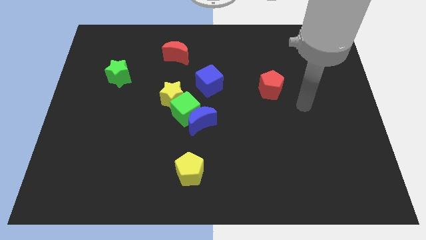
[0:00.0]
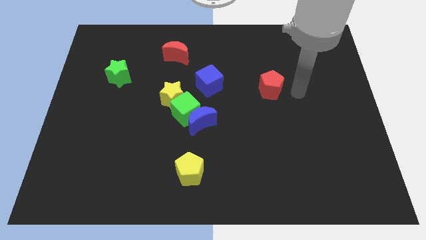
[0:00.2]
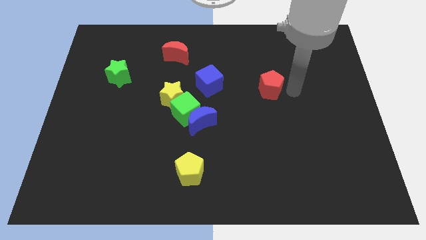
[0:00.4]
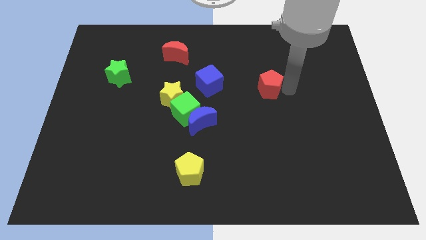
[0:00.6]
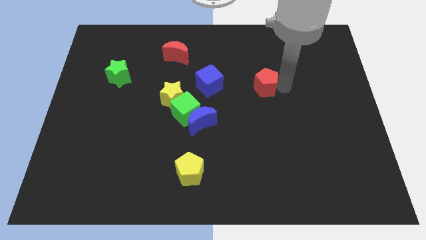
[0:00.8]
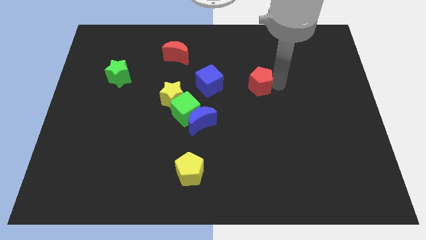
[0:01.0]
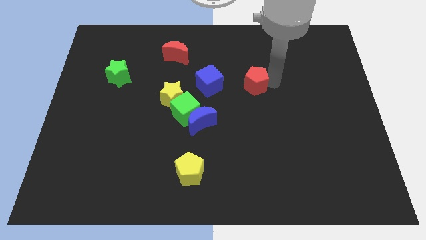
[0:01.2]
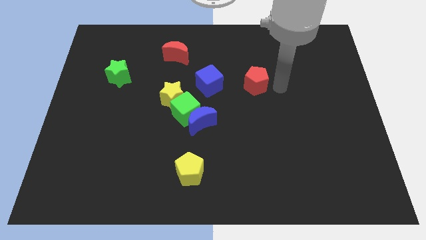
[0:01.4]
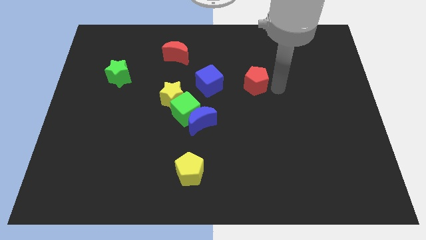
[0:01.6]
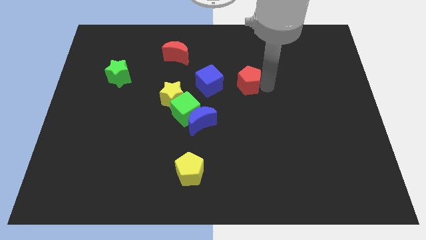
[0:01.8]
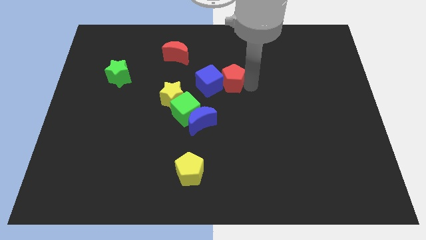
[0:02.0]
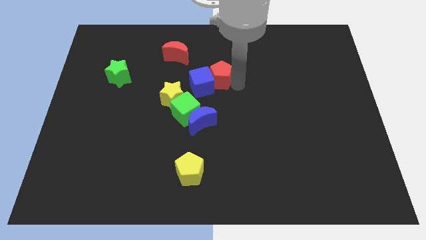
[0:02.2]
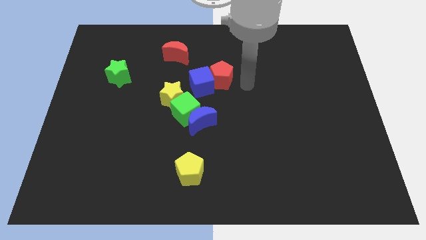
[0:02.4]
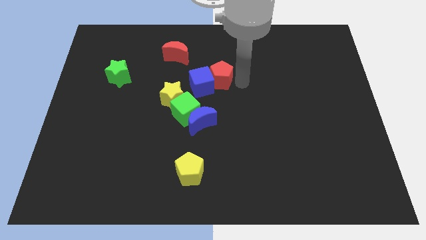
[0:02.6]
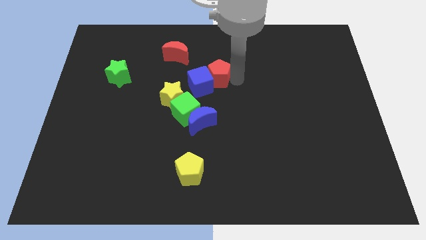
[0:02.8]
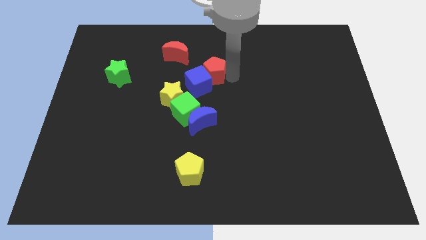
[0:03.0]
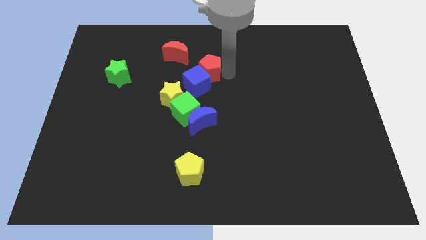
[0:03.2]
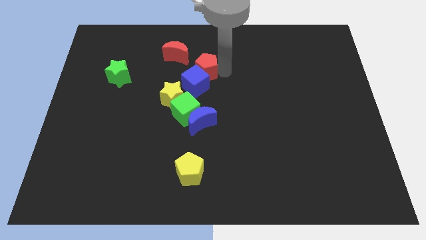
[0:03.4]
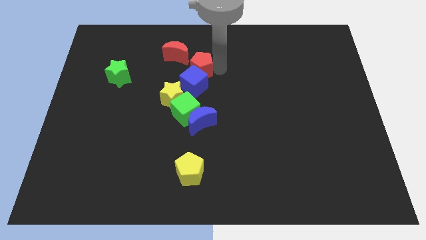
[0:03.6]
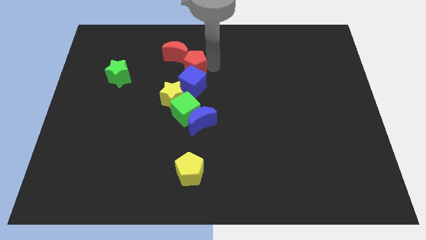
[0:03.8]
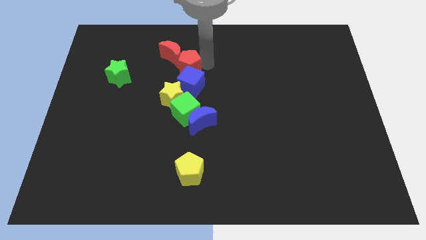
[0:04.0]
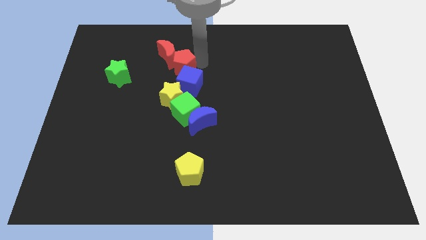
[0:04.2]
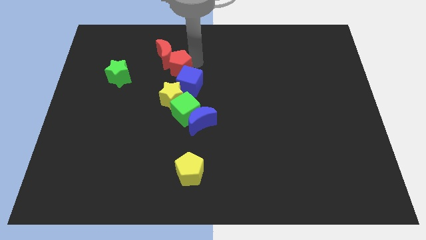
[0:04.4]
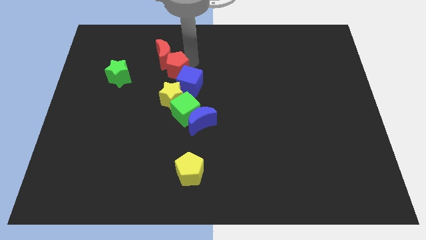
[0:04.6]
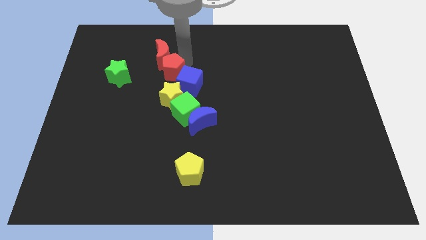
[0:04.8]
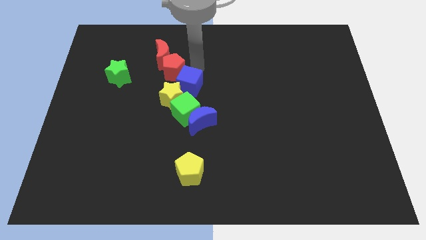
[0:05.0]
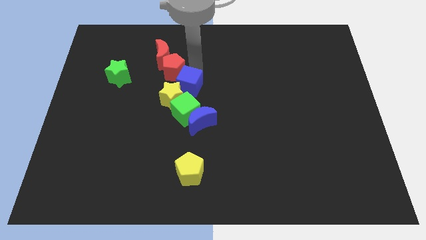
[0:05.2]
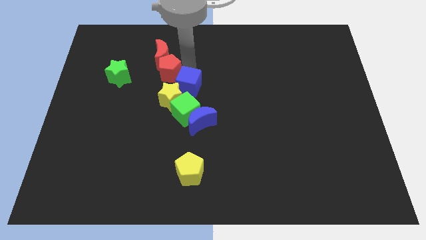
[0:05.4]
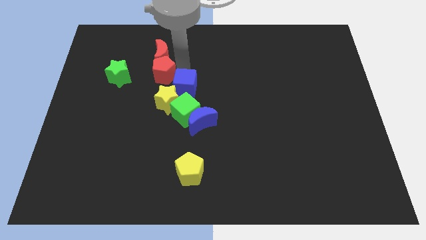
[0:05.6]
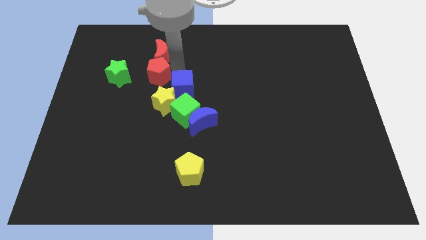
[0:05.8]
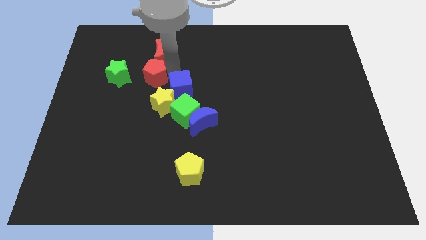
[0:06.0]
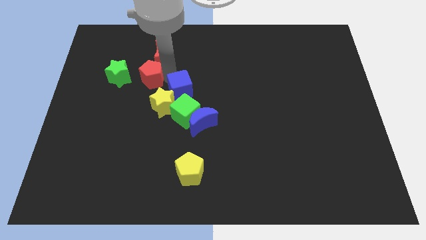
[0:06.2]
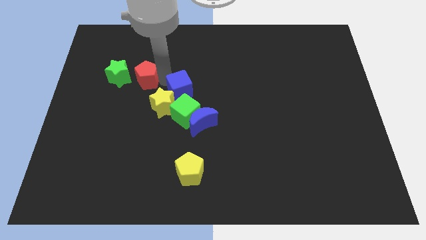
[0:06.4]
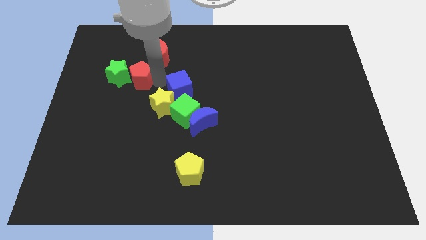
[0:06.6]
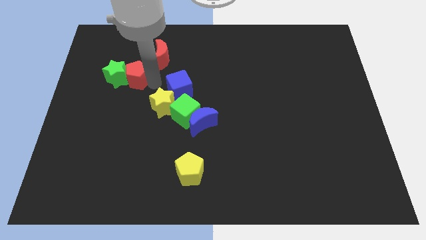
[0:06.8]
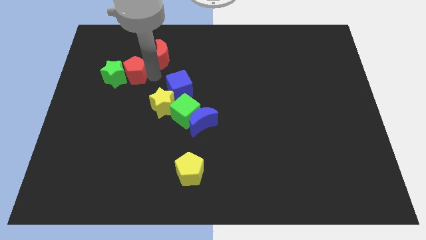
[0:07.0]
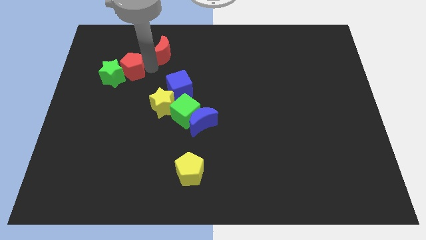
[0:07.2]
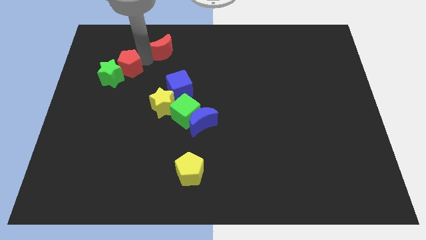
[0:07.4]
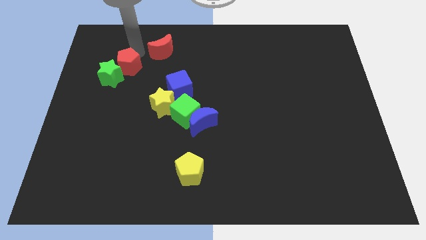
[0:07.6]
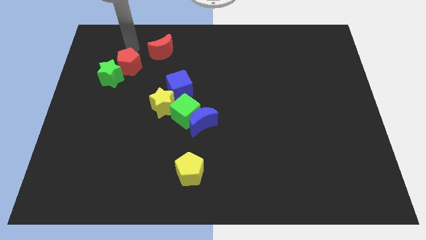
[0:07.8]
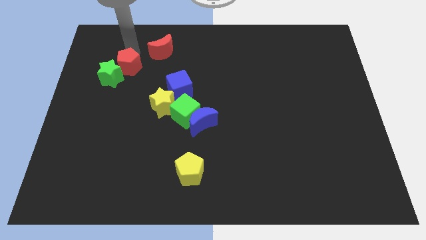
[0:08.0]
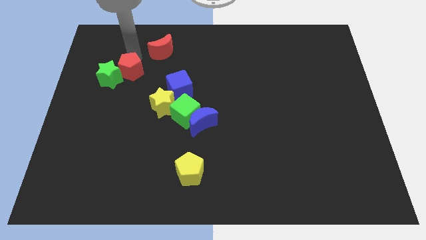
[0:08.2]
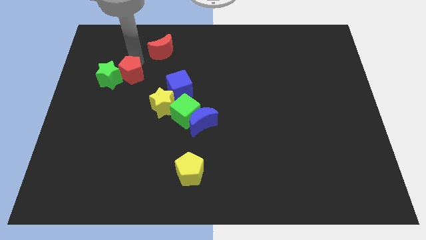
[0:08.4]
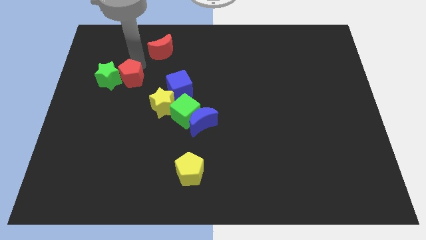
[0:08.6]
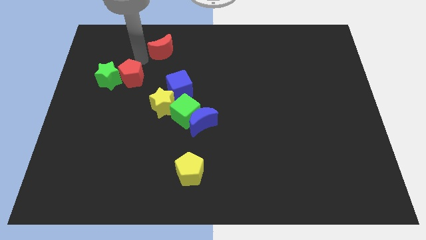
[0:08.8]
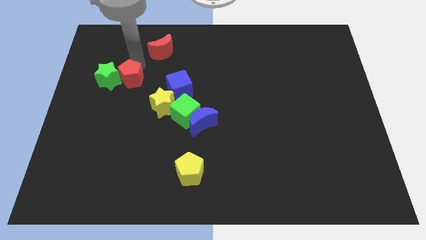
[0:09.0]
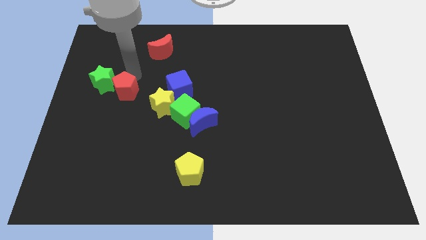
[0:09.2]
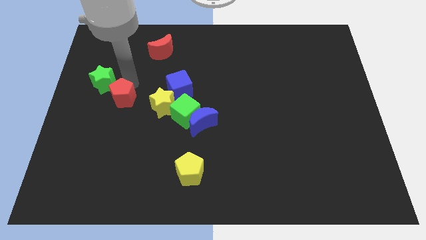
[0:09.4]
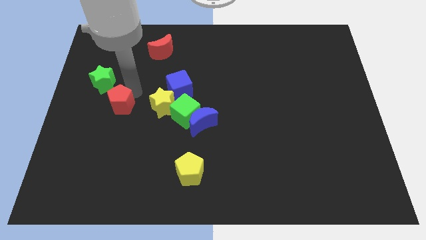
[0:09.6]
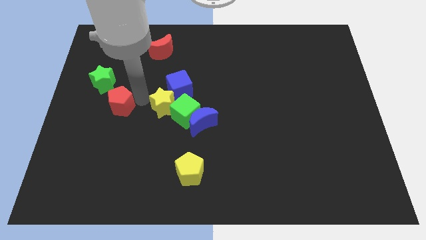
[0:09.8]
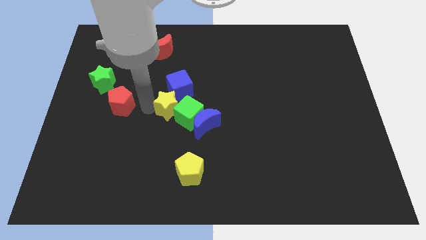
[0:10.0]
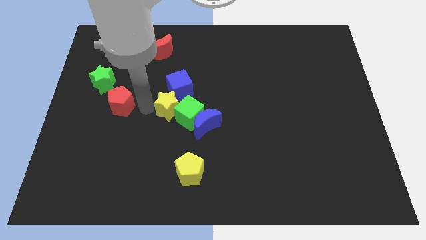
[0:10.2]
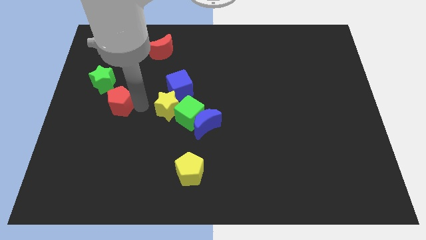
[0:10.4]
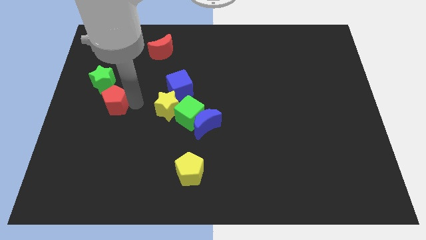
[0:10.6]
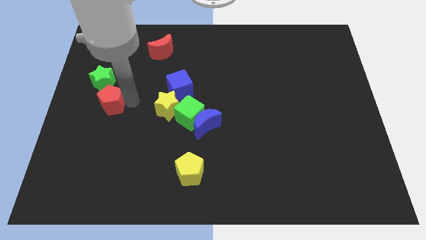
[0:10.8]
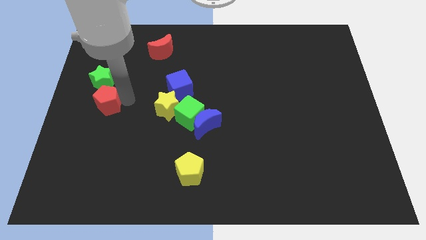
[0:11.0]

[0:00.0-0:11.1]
move the red pentagon to the left side

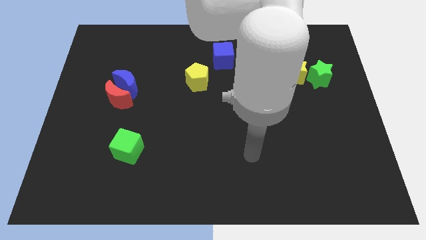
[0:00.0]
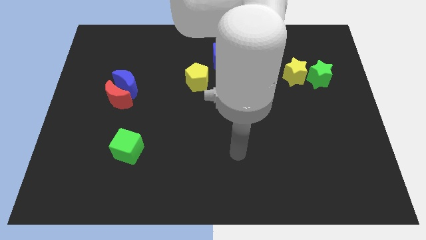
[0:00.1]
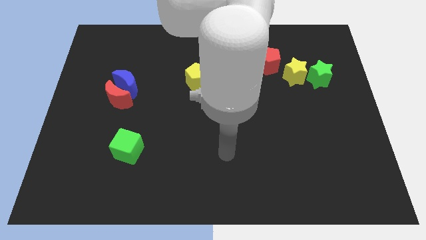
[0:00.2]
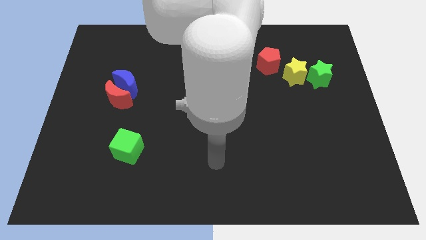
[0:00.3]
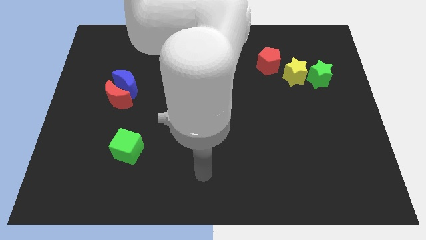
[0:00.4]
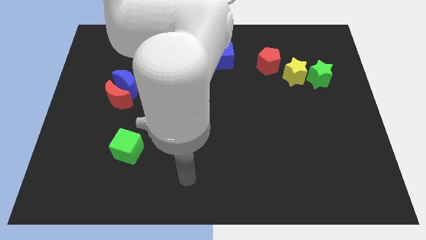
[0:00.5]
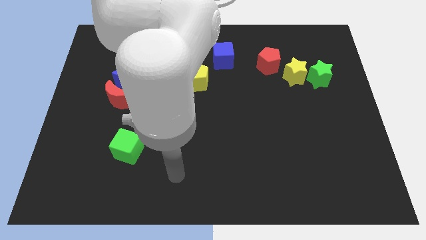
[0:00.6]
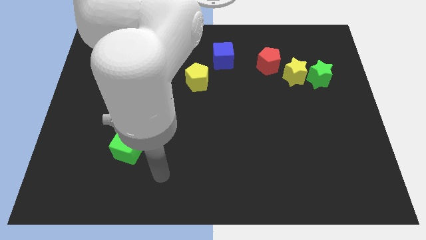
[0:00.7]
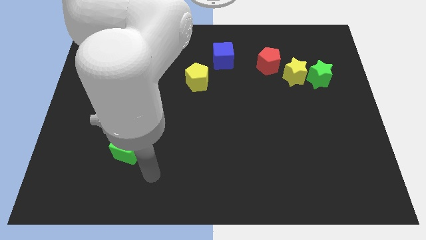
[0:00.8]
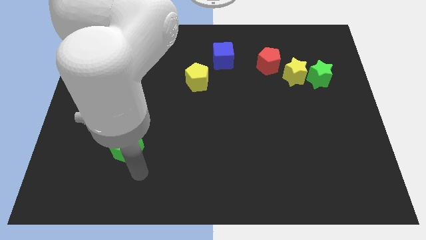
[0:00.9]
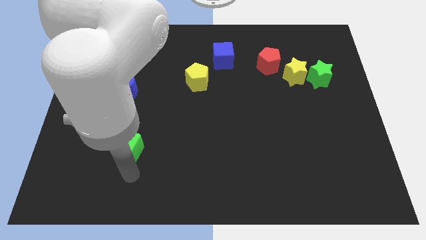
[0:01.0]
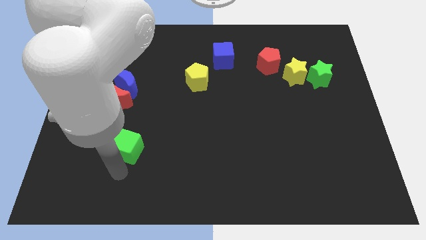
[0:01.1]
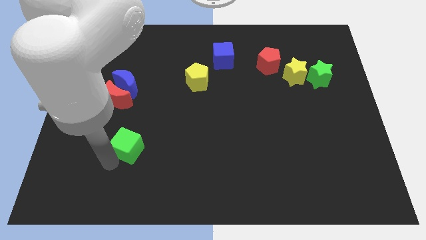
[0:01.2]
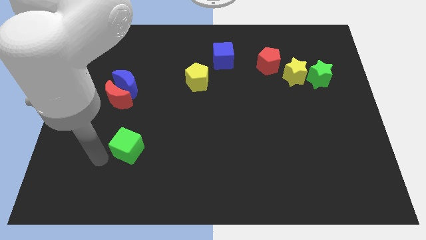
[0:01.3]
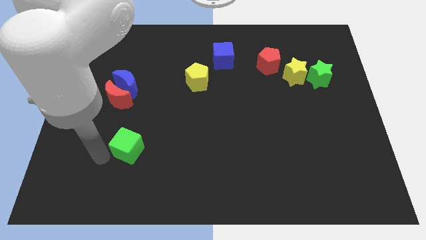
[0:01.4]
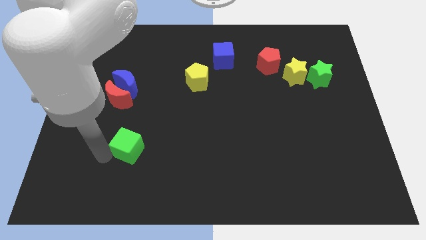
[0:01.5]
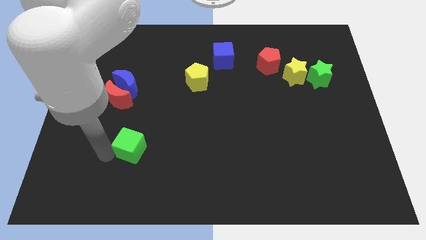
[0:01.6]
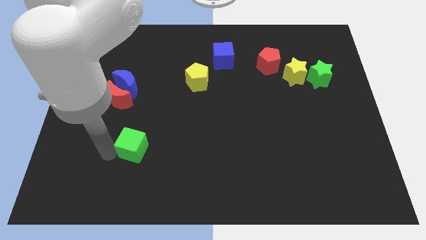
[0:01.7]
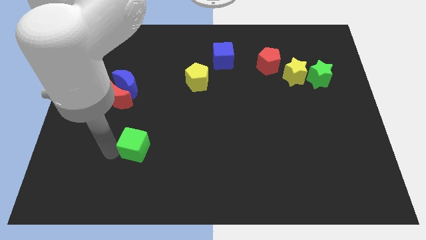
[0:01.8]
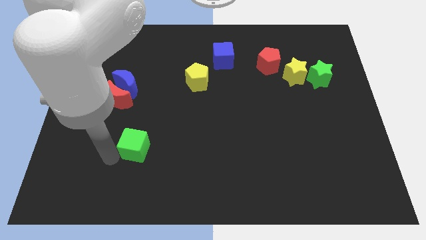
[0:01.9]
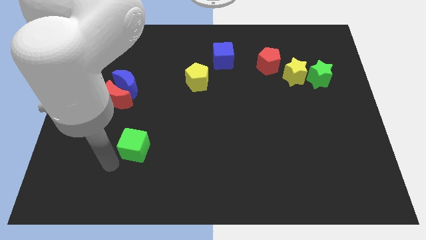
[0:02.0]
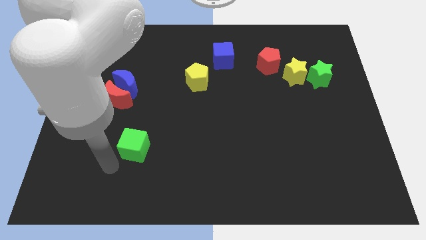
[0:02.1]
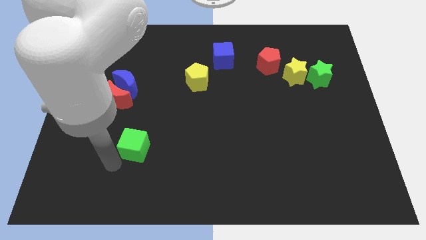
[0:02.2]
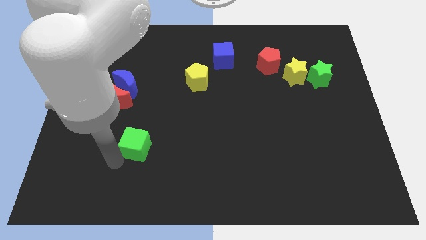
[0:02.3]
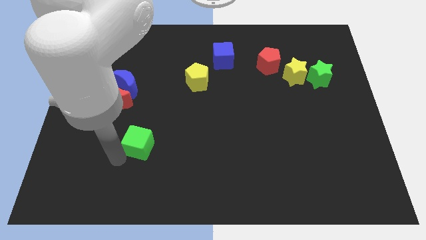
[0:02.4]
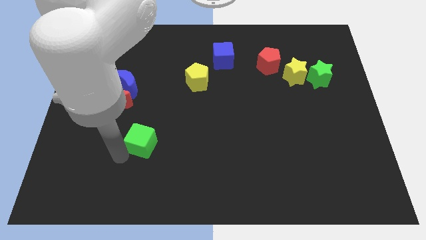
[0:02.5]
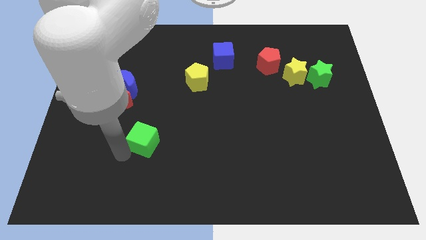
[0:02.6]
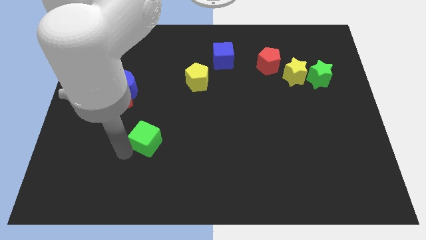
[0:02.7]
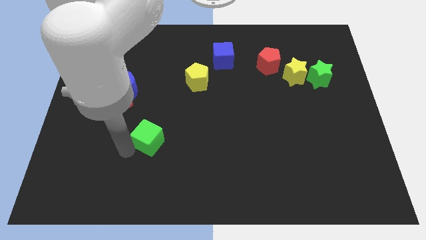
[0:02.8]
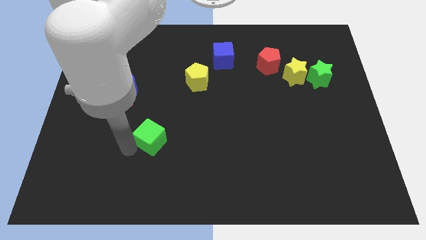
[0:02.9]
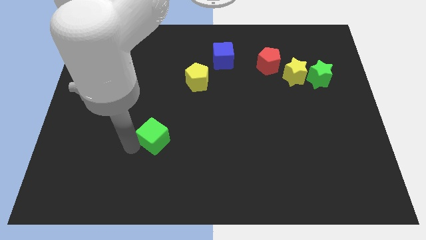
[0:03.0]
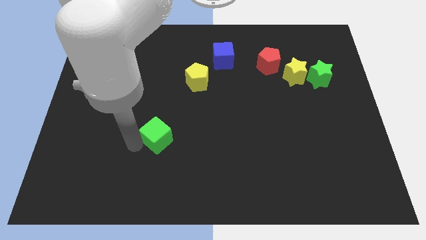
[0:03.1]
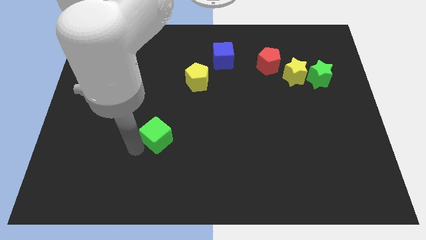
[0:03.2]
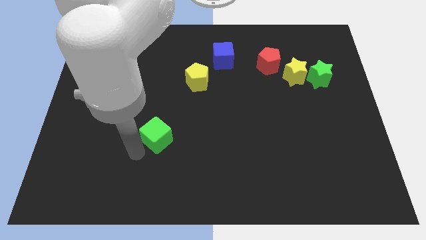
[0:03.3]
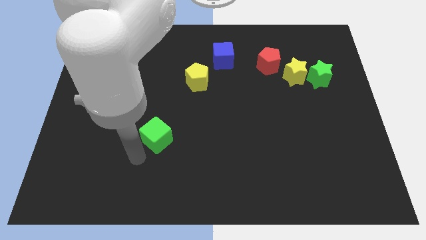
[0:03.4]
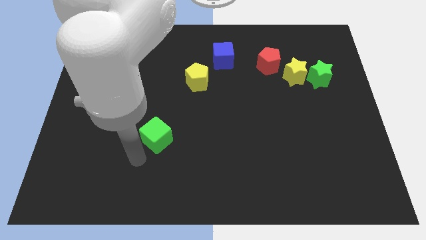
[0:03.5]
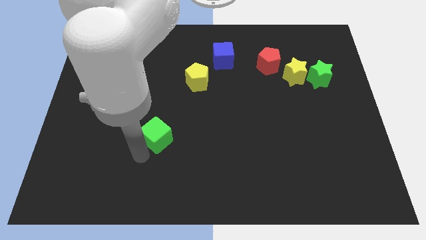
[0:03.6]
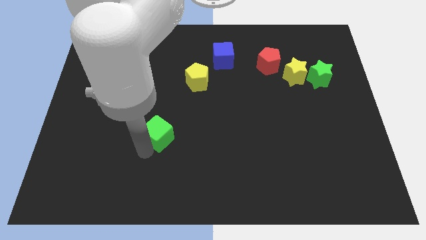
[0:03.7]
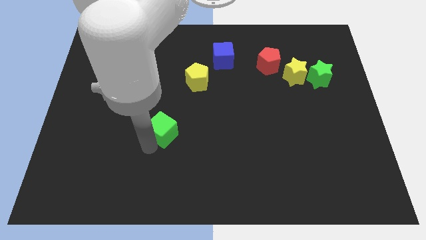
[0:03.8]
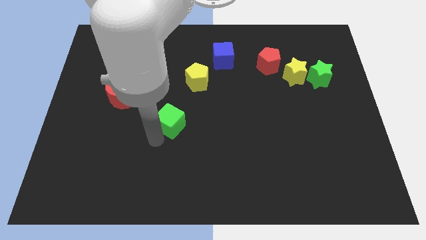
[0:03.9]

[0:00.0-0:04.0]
slide the green cube to the center of the board
